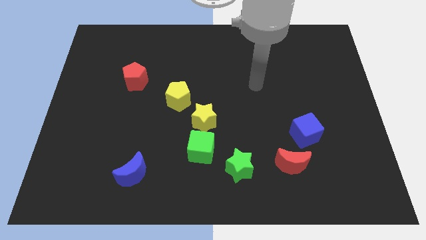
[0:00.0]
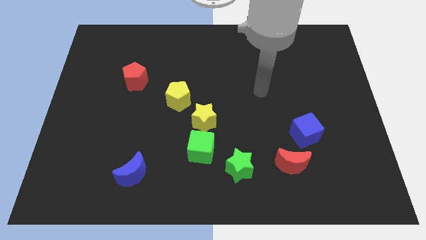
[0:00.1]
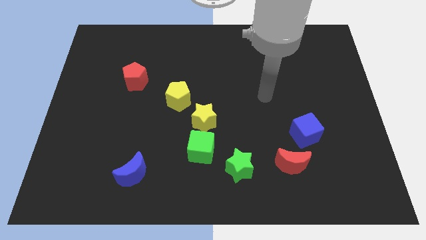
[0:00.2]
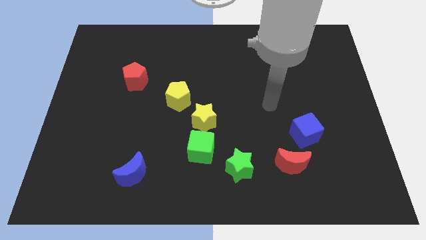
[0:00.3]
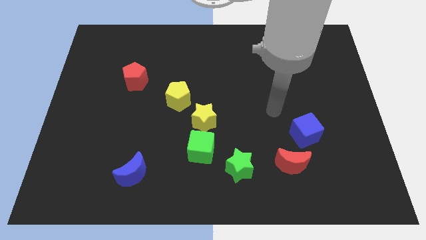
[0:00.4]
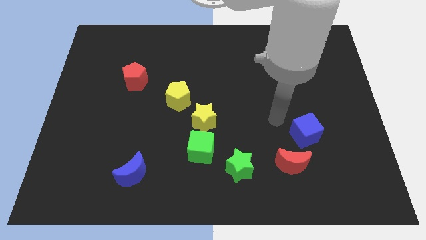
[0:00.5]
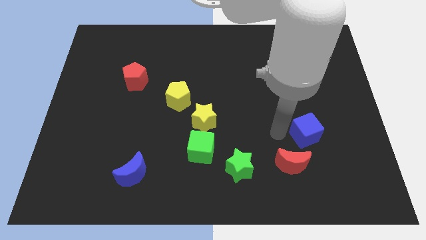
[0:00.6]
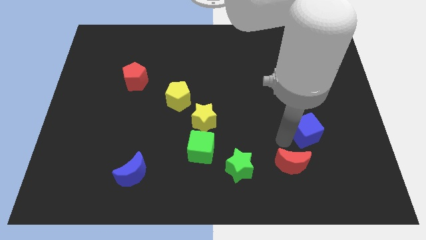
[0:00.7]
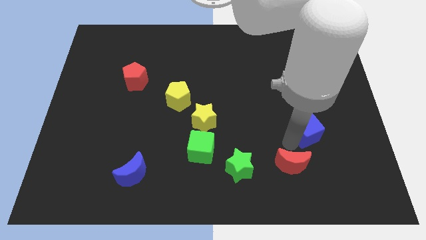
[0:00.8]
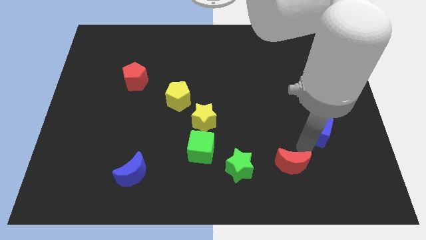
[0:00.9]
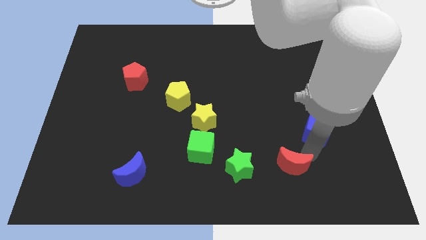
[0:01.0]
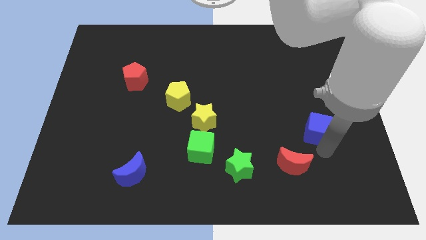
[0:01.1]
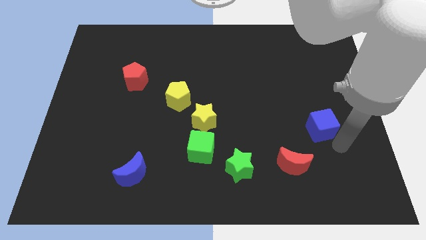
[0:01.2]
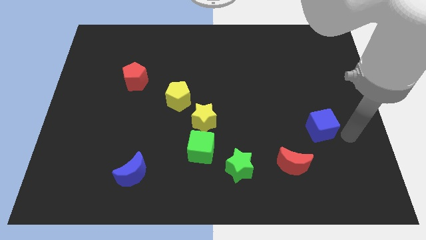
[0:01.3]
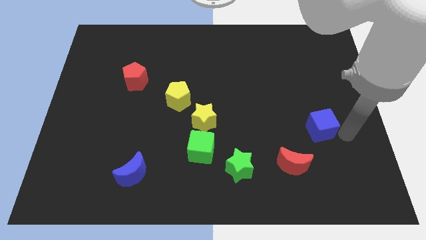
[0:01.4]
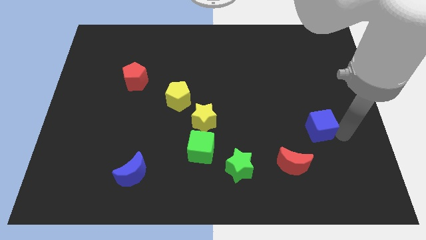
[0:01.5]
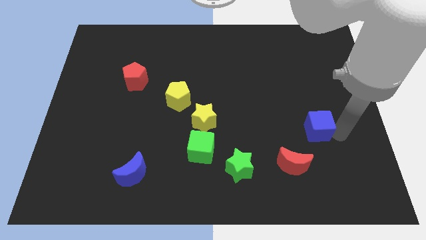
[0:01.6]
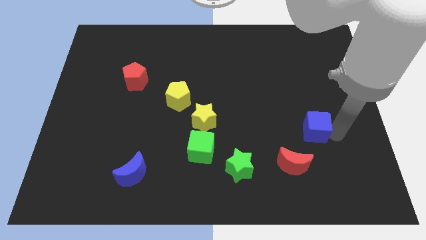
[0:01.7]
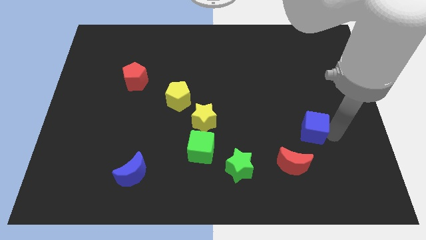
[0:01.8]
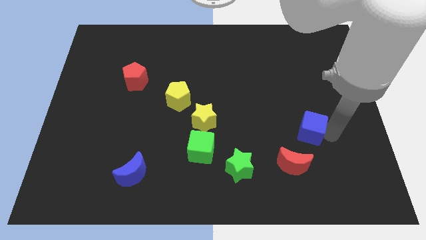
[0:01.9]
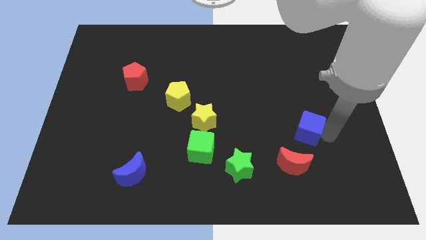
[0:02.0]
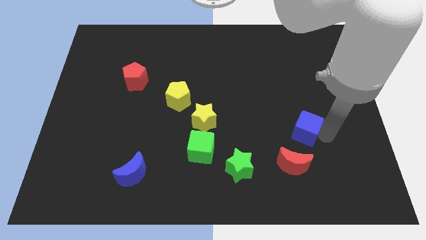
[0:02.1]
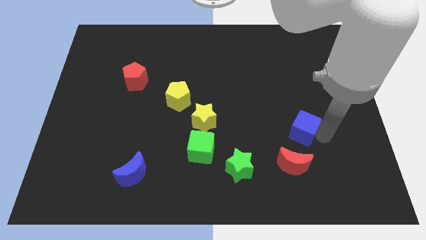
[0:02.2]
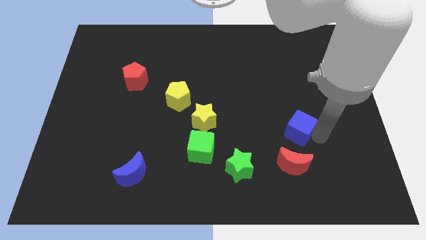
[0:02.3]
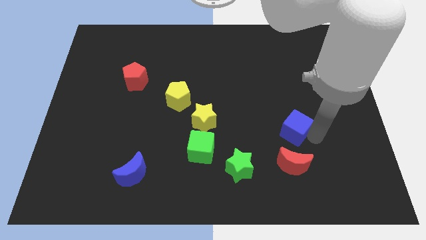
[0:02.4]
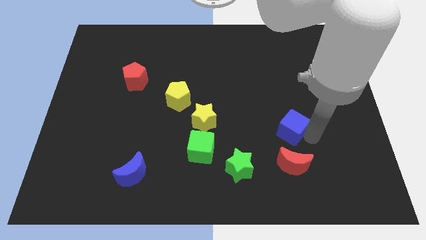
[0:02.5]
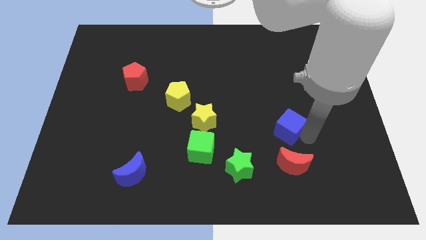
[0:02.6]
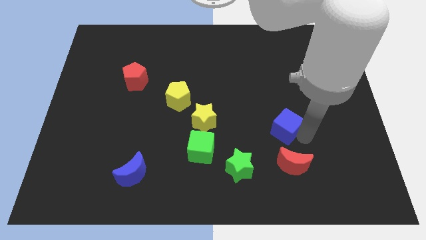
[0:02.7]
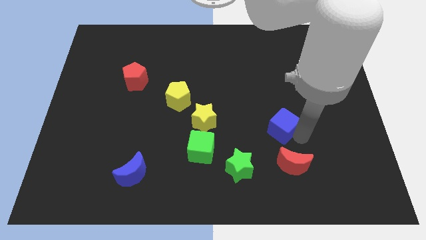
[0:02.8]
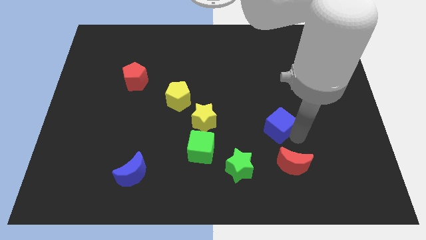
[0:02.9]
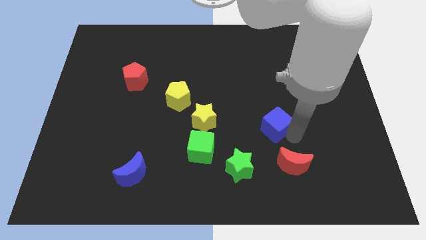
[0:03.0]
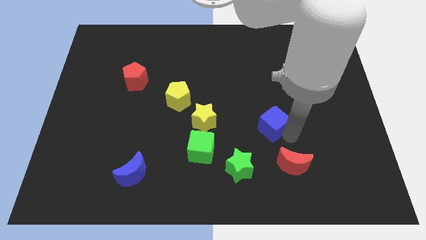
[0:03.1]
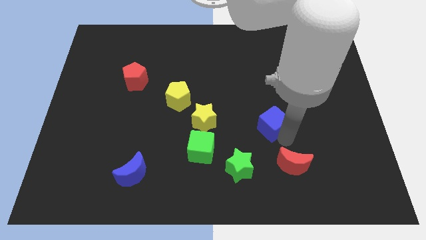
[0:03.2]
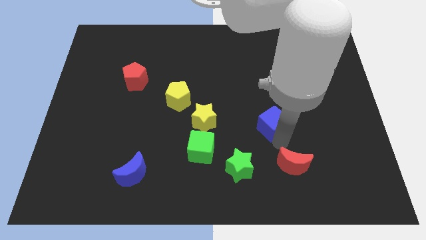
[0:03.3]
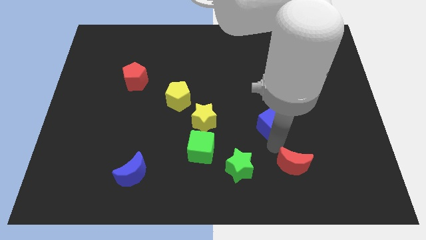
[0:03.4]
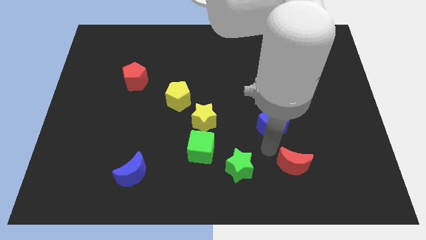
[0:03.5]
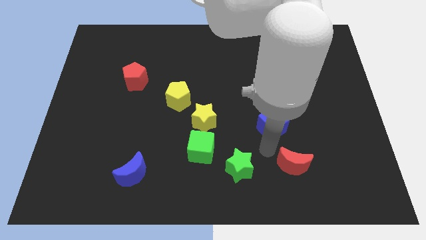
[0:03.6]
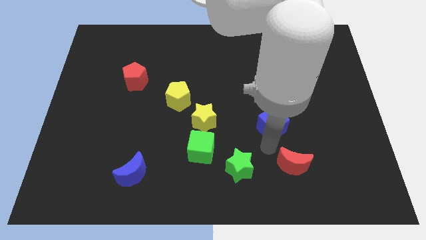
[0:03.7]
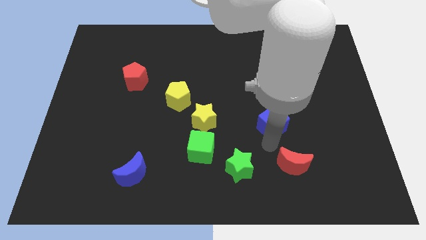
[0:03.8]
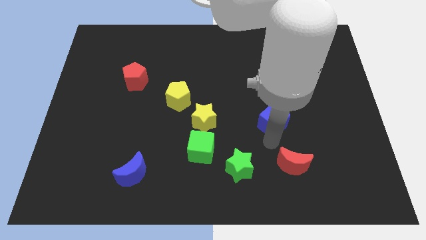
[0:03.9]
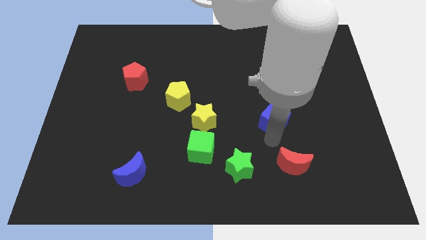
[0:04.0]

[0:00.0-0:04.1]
slightly move the blue cube up and to the left diagonally

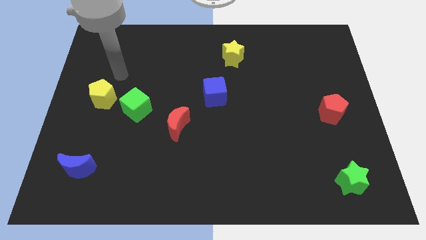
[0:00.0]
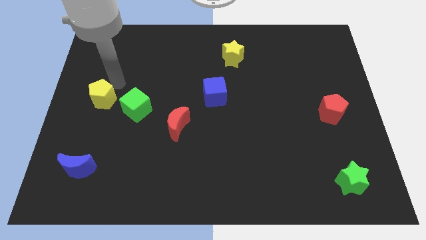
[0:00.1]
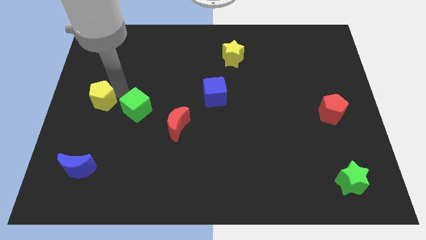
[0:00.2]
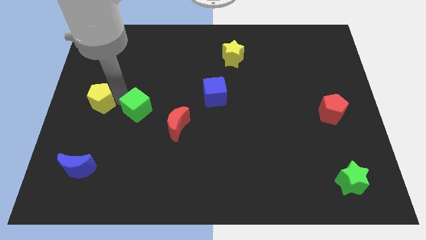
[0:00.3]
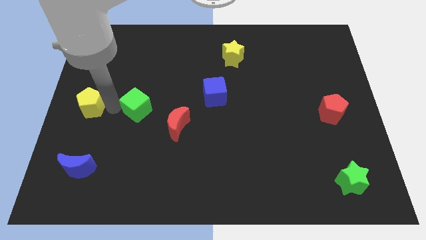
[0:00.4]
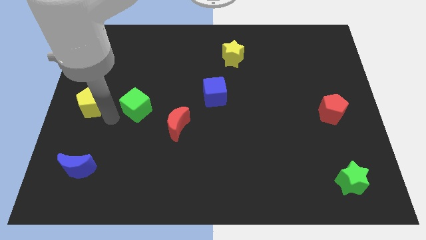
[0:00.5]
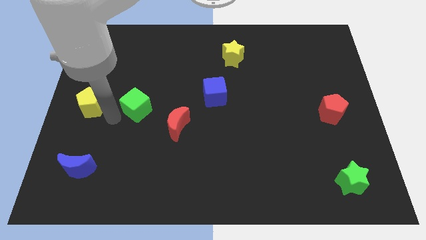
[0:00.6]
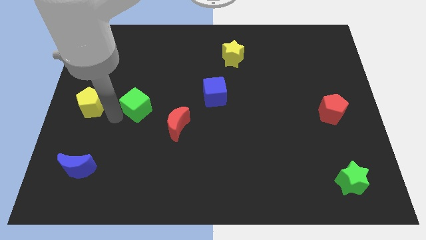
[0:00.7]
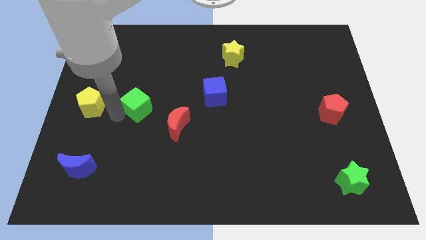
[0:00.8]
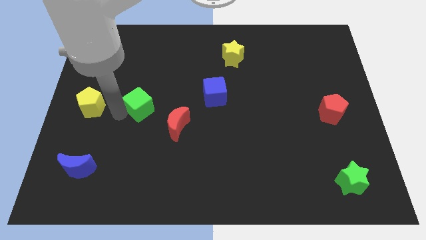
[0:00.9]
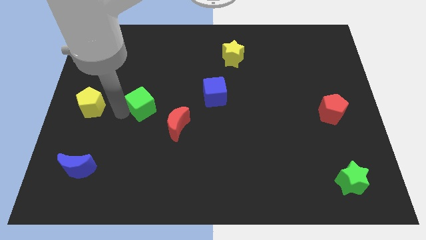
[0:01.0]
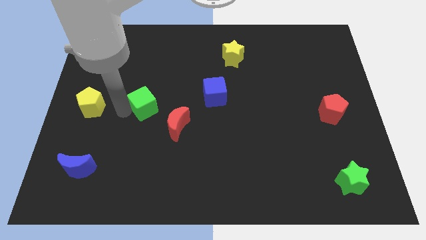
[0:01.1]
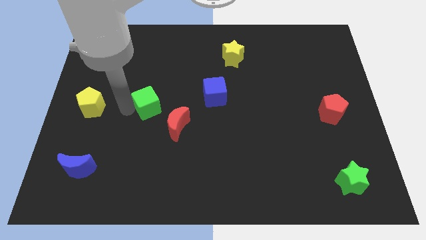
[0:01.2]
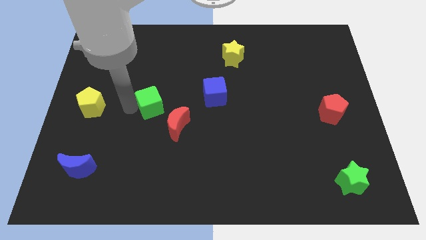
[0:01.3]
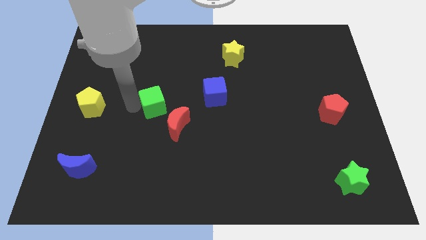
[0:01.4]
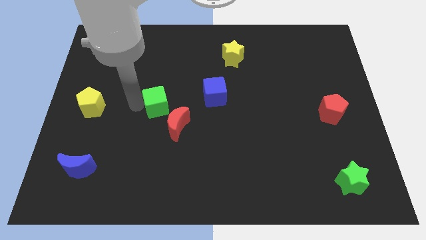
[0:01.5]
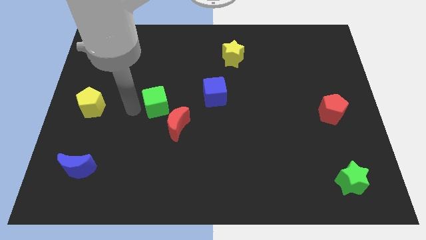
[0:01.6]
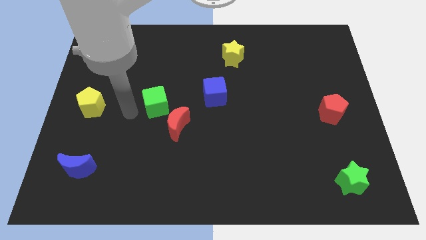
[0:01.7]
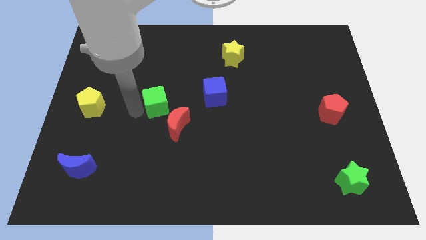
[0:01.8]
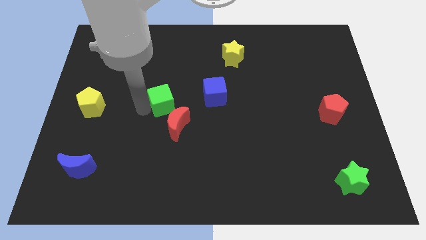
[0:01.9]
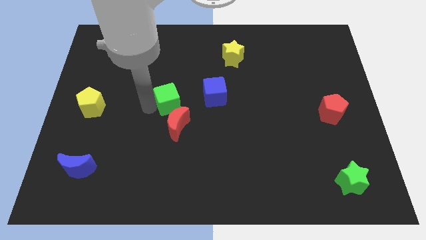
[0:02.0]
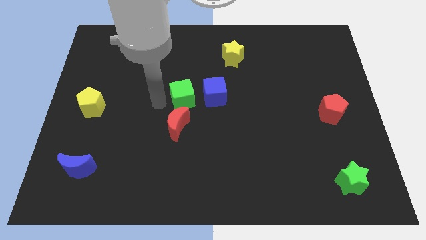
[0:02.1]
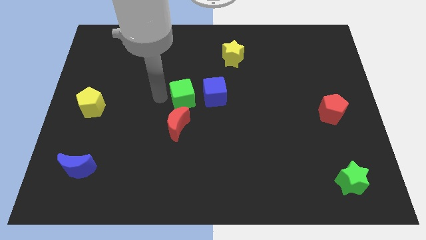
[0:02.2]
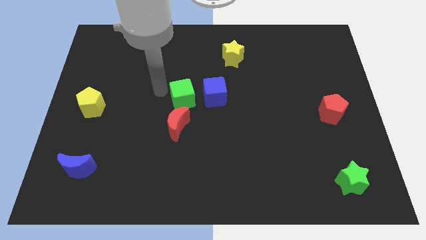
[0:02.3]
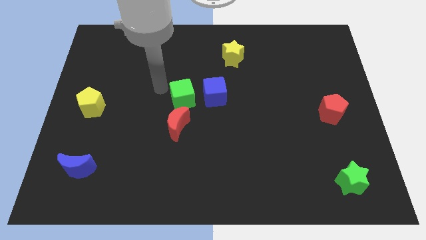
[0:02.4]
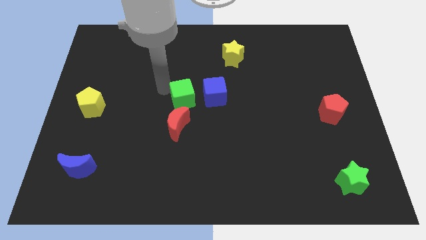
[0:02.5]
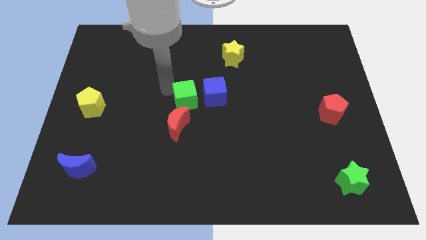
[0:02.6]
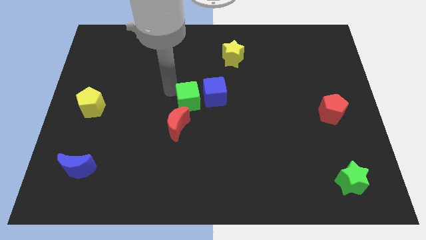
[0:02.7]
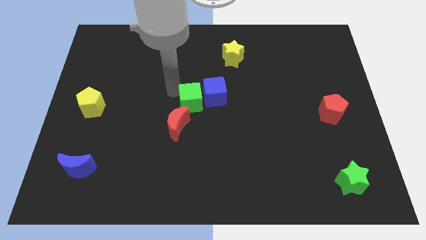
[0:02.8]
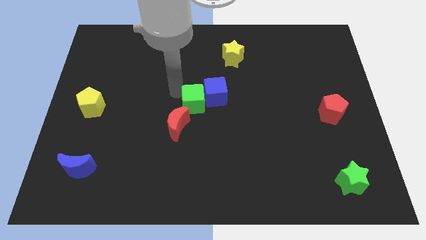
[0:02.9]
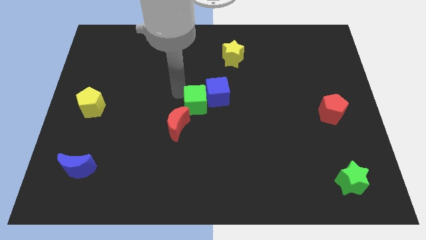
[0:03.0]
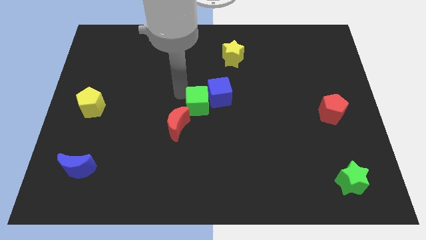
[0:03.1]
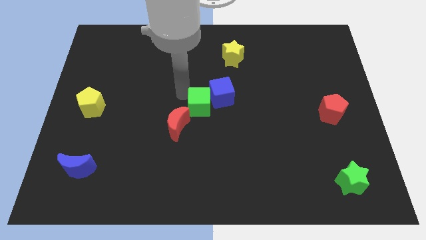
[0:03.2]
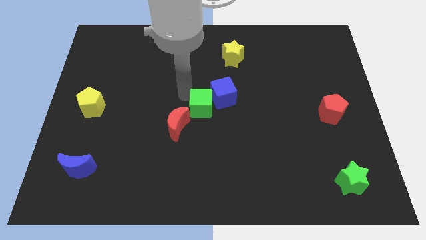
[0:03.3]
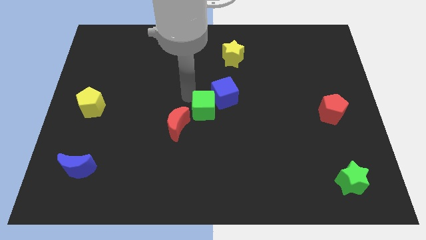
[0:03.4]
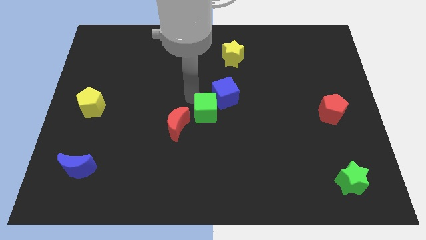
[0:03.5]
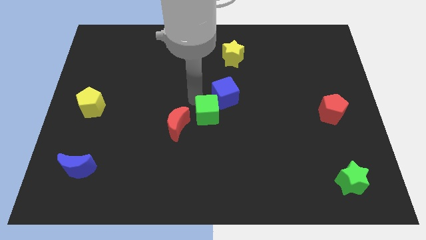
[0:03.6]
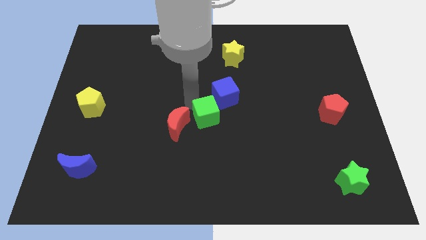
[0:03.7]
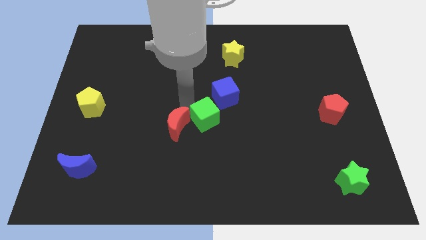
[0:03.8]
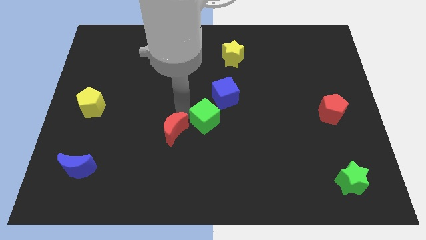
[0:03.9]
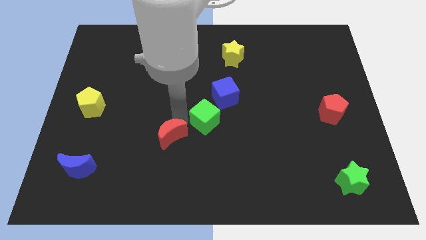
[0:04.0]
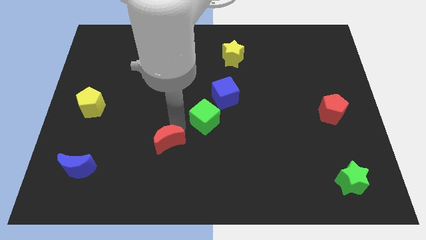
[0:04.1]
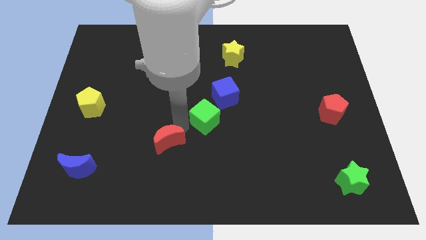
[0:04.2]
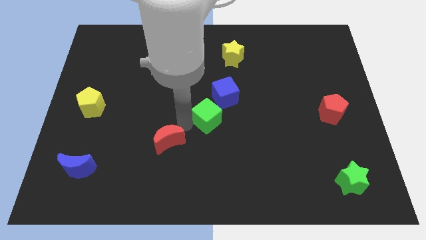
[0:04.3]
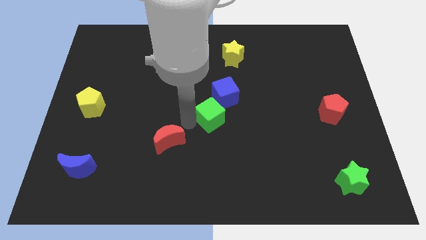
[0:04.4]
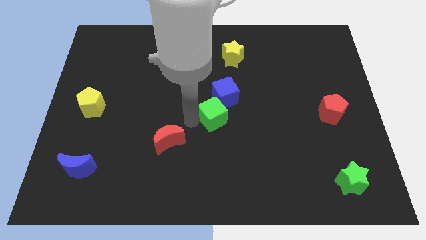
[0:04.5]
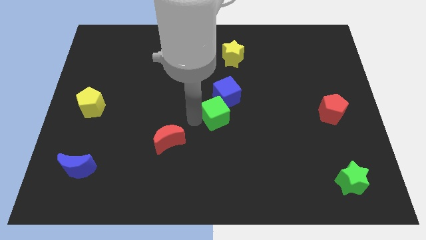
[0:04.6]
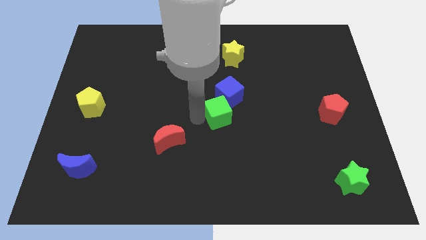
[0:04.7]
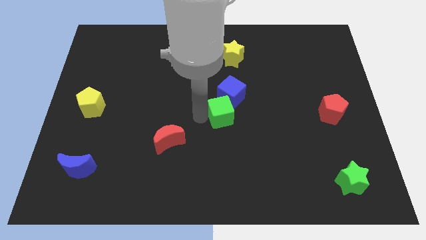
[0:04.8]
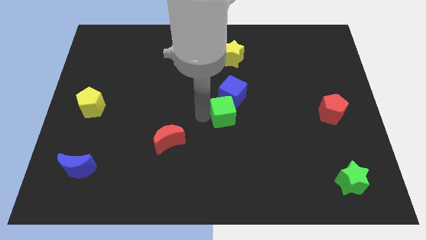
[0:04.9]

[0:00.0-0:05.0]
push the green cube to the right
